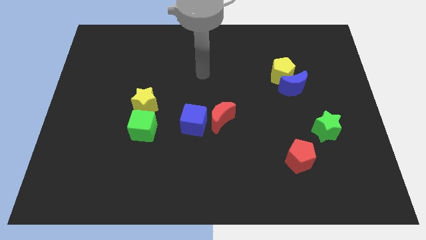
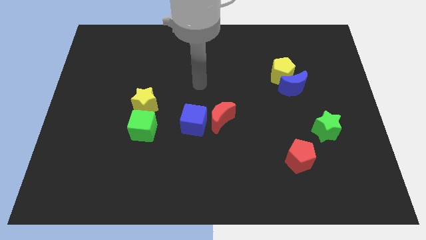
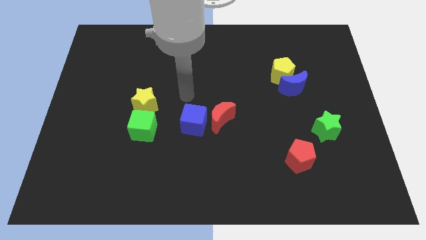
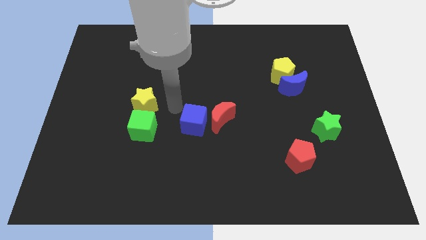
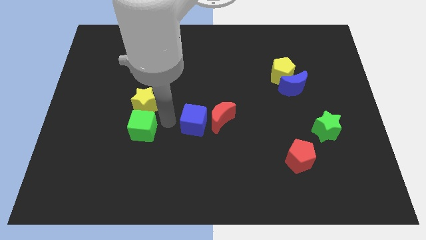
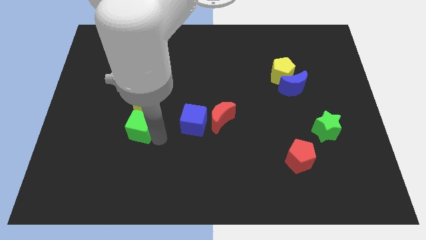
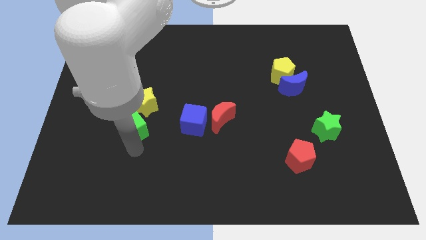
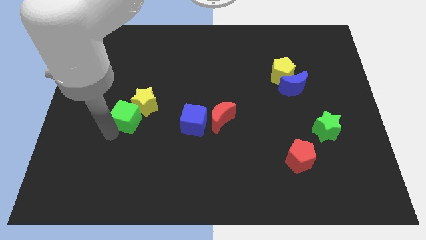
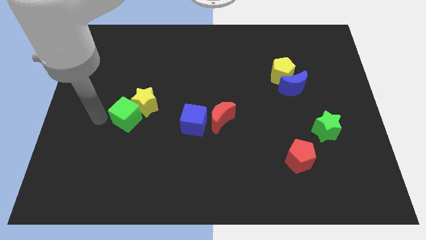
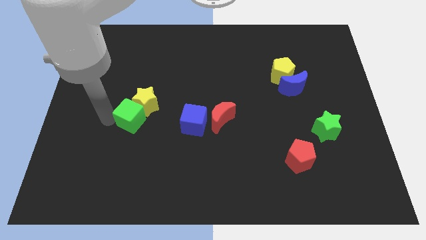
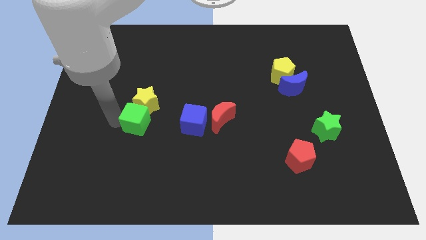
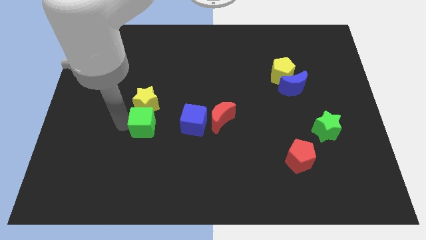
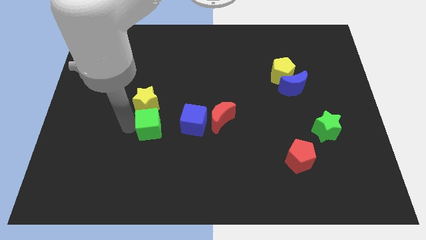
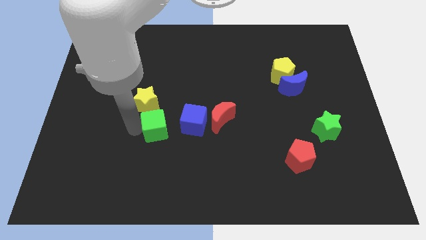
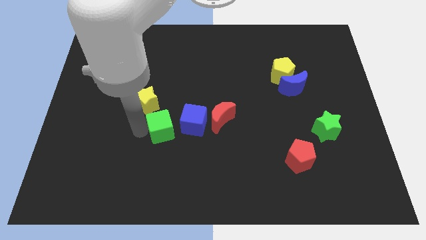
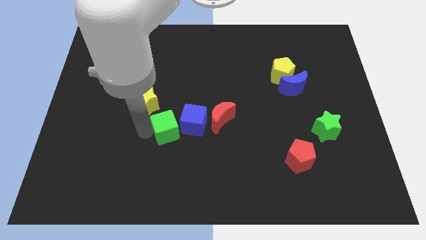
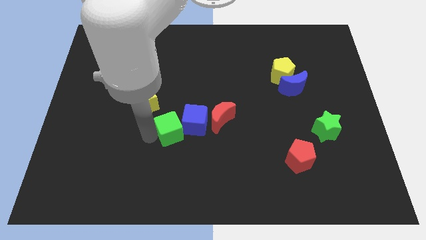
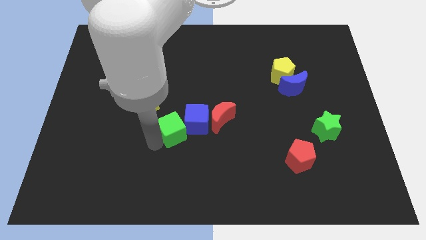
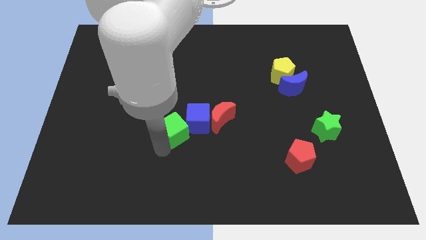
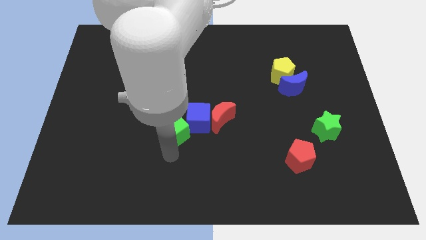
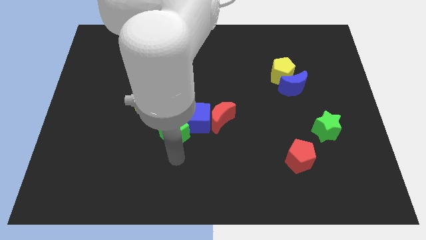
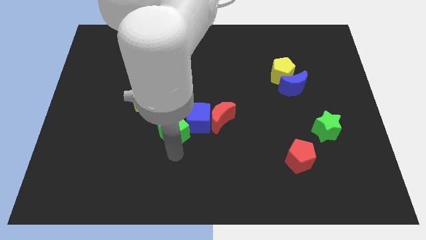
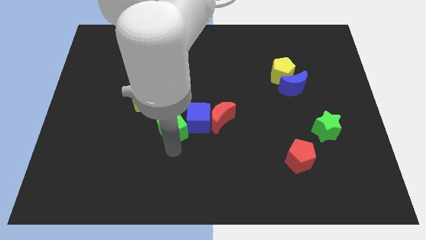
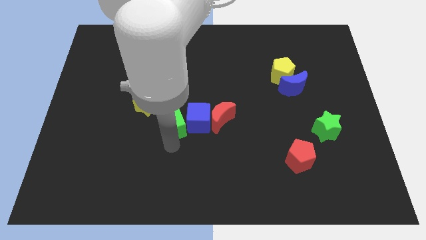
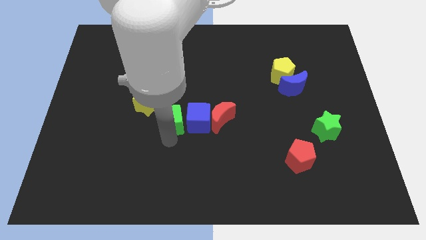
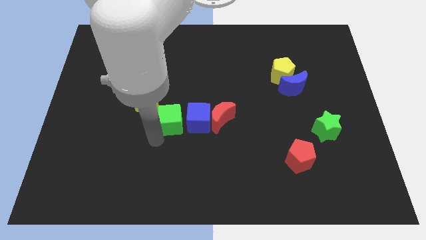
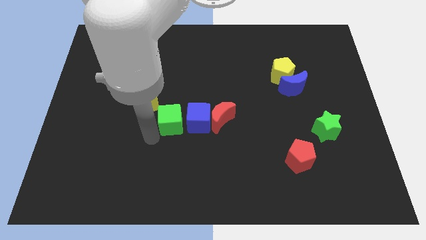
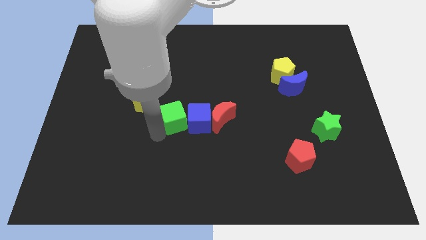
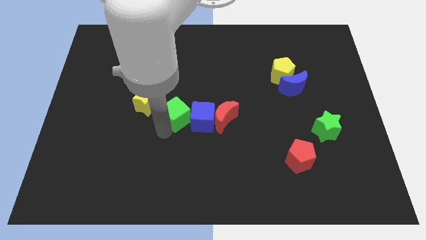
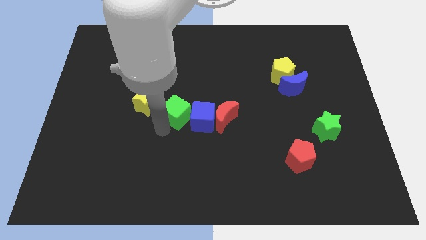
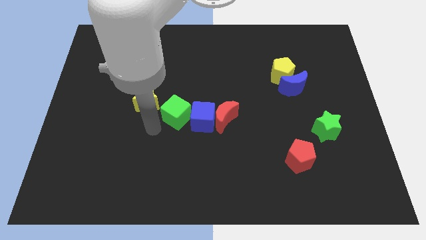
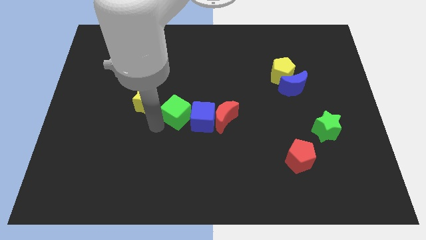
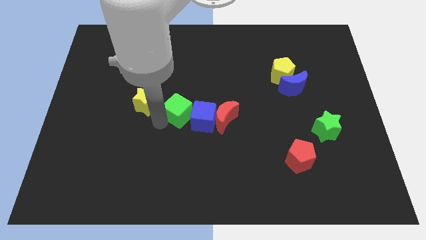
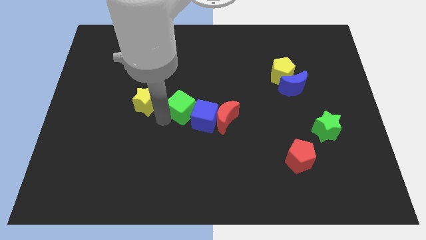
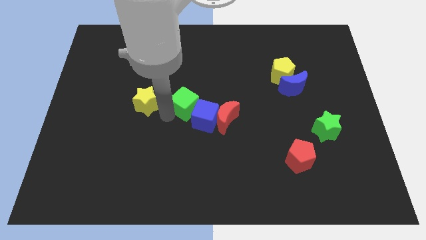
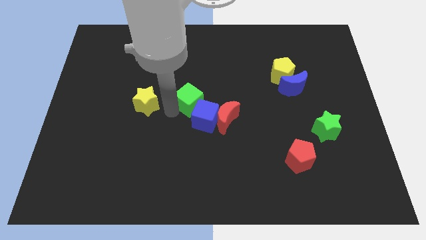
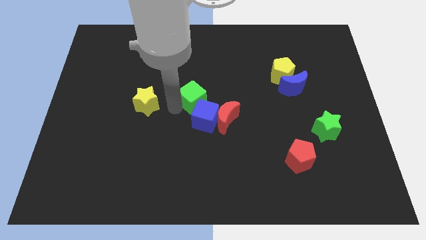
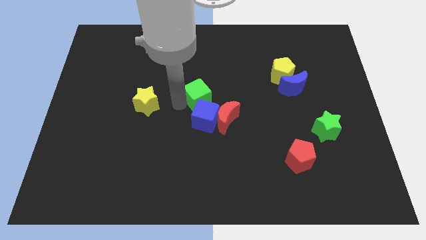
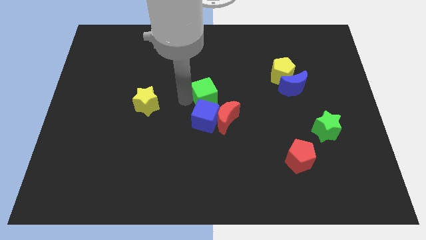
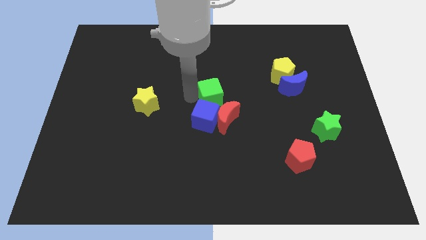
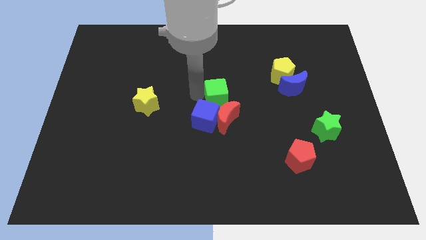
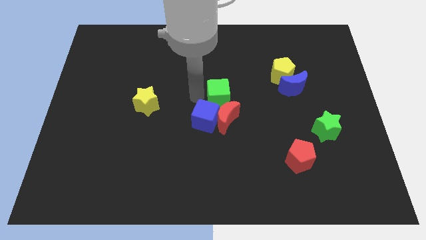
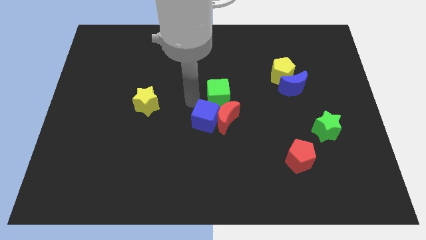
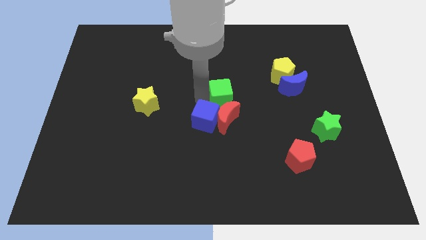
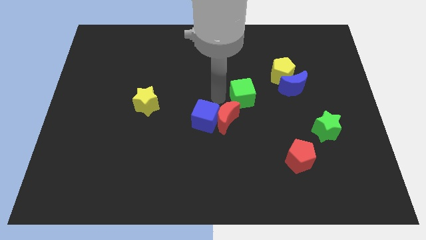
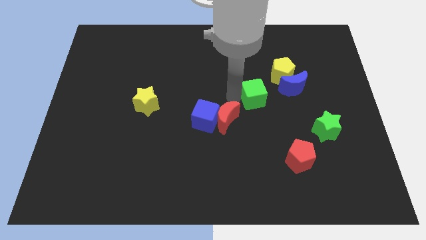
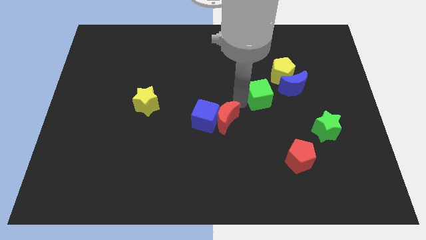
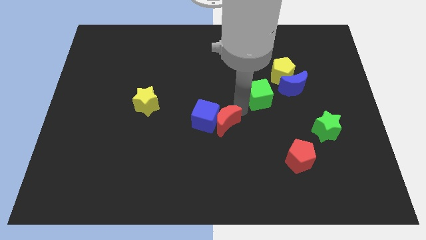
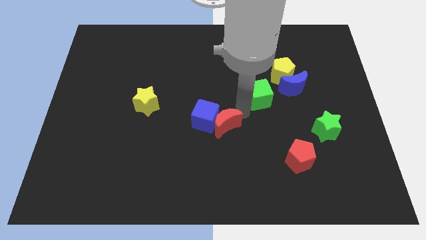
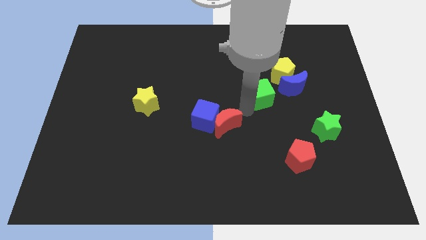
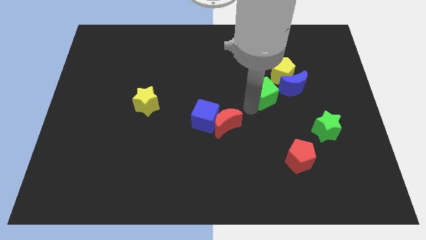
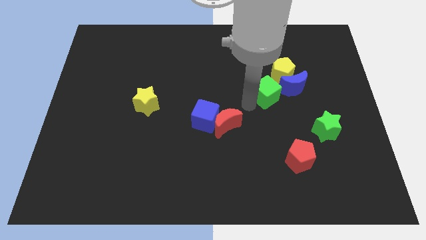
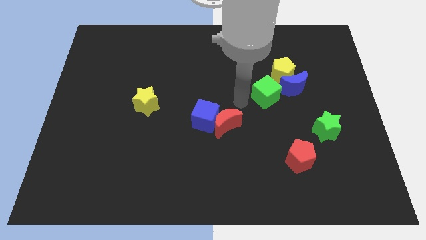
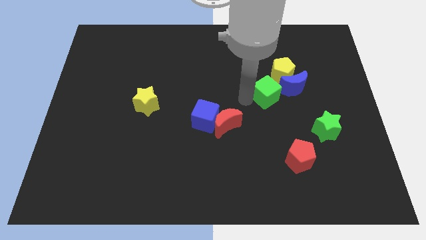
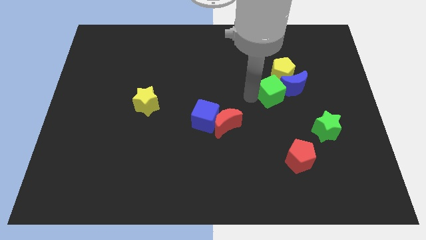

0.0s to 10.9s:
move the green cube to the blue moon

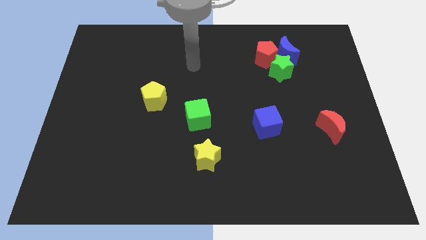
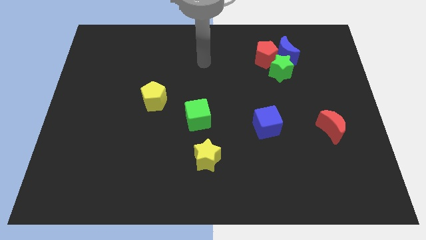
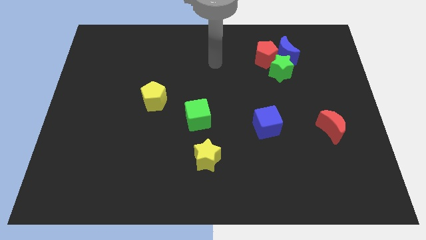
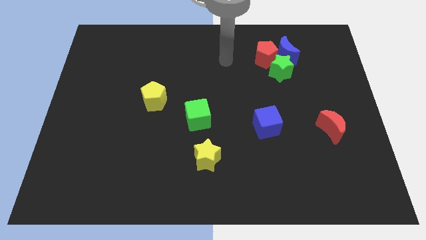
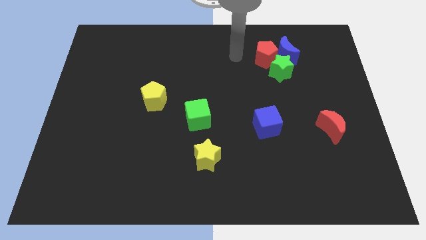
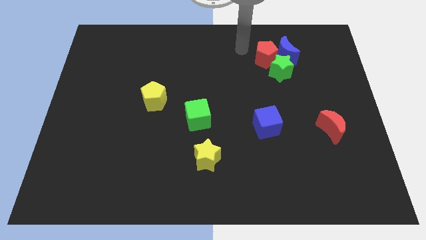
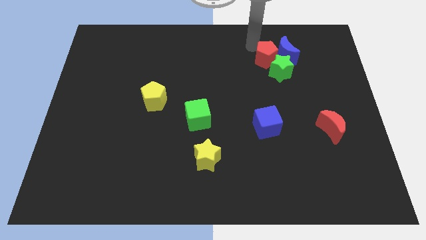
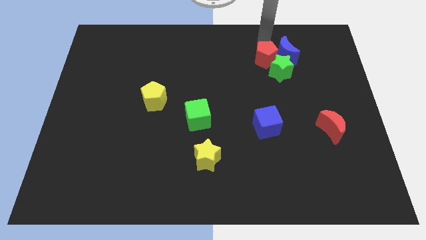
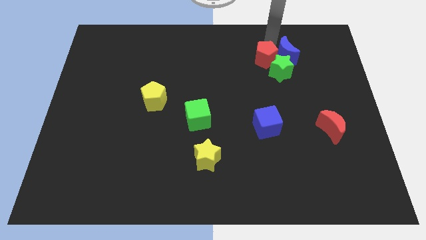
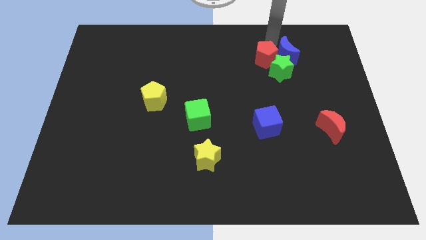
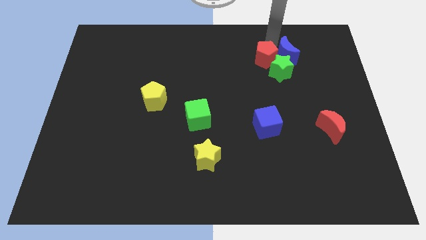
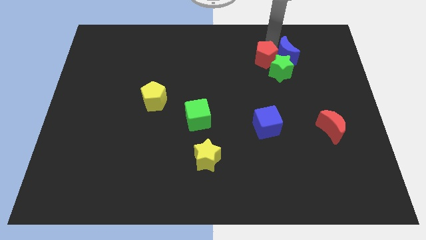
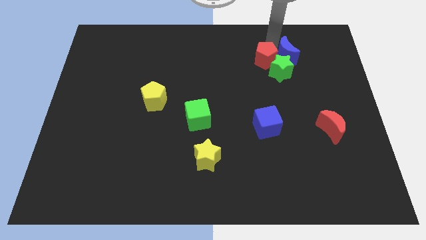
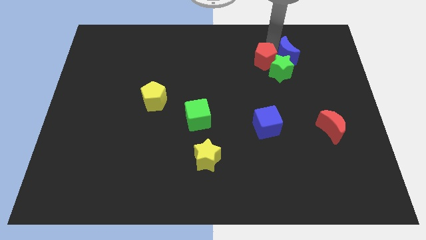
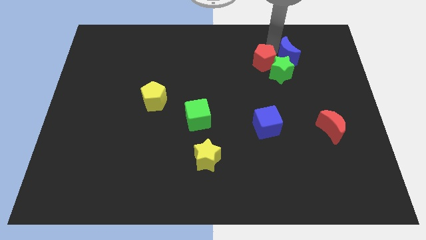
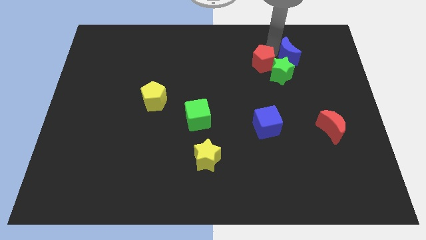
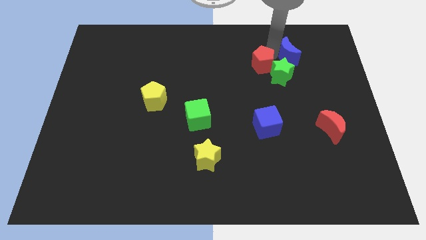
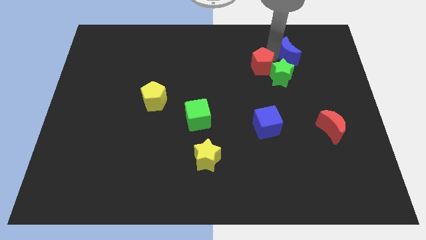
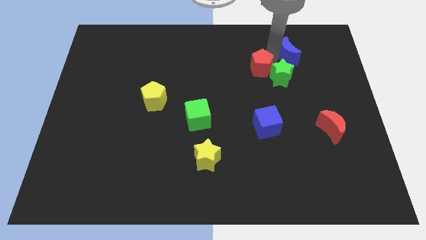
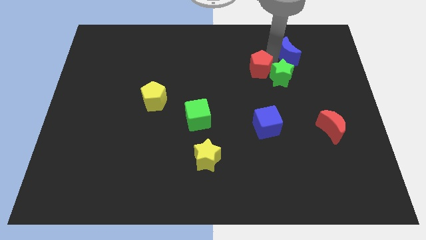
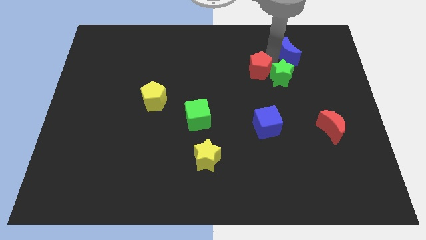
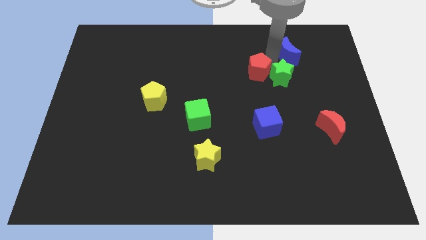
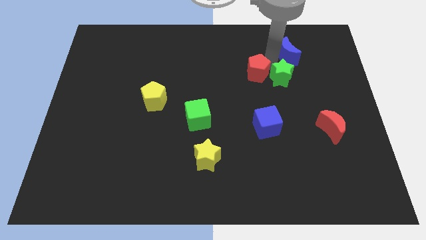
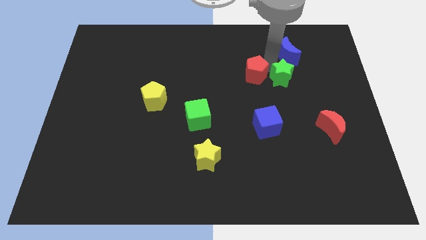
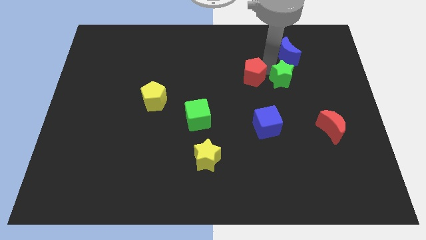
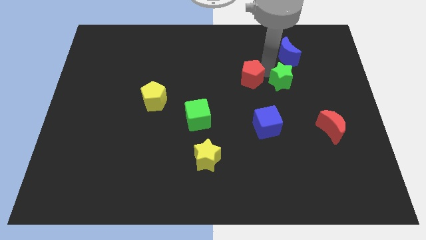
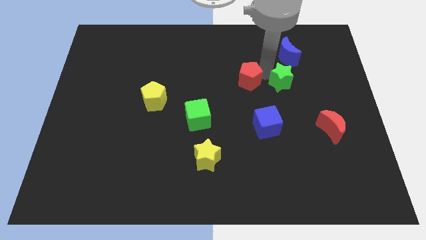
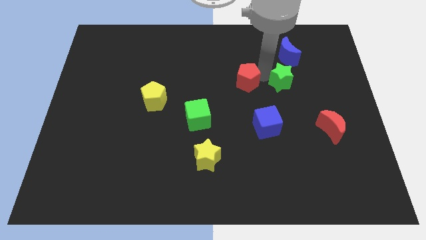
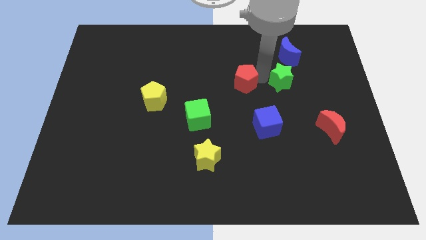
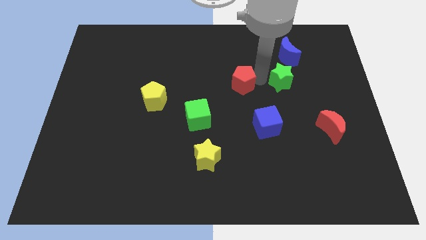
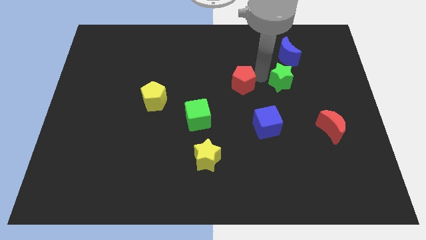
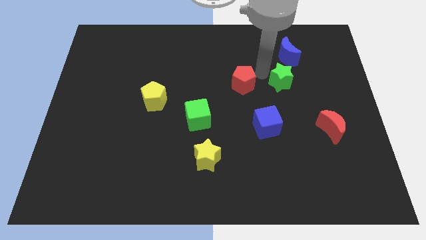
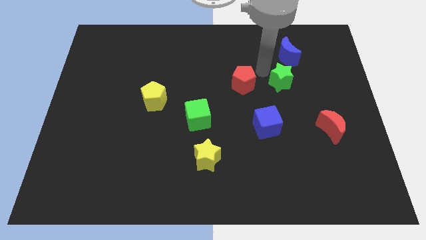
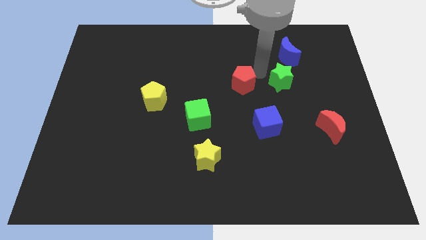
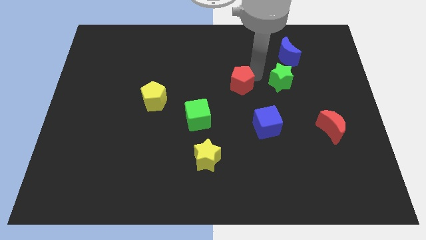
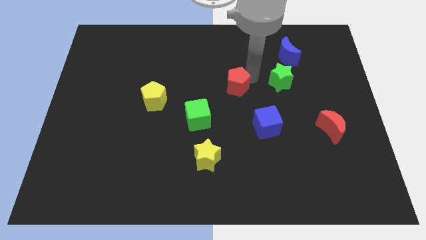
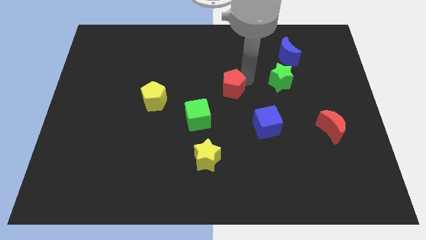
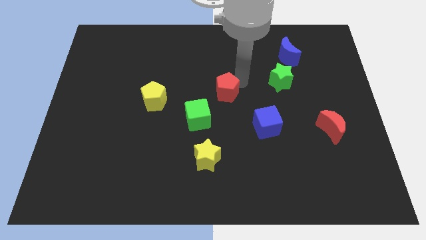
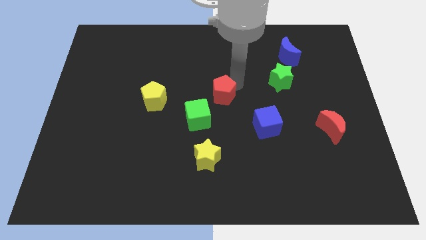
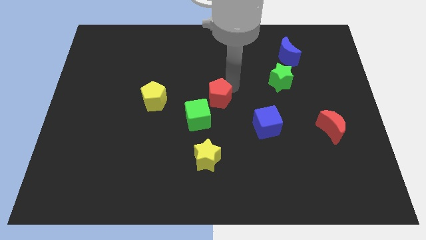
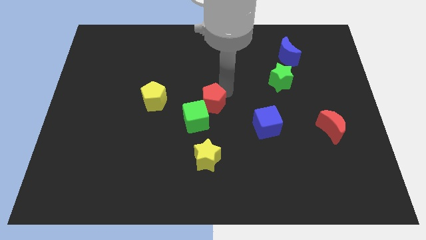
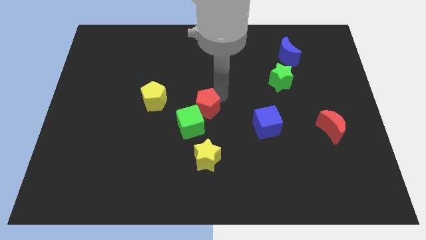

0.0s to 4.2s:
slide the red pentagon close to the green cube
